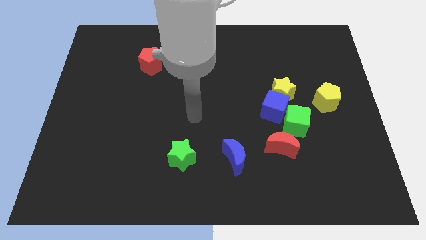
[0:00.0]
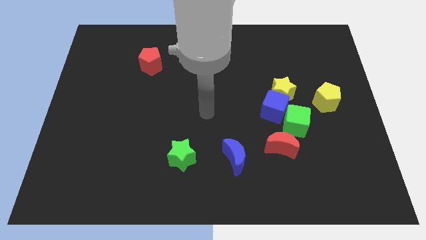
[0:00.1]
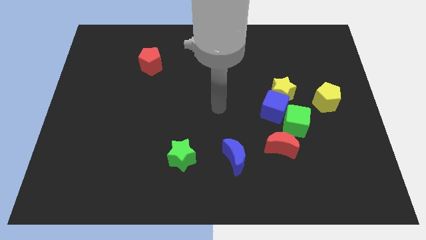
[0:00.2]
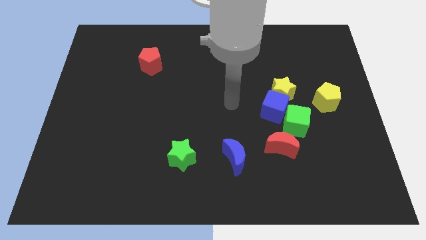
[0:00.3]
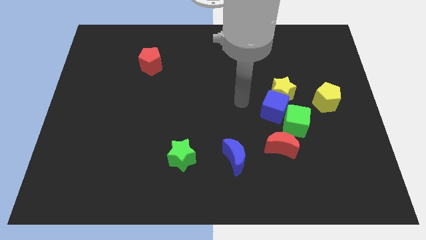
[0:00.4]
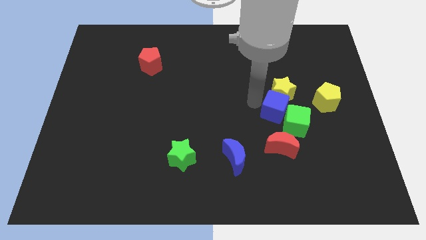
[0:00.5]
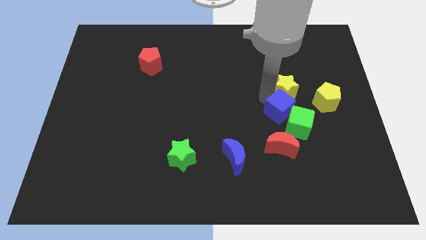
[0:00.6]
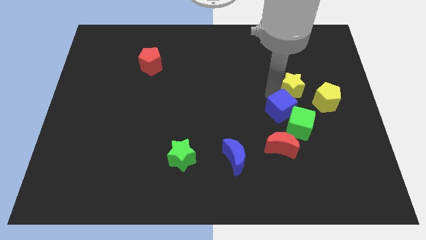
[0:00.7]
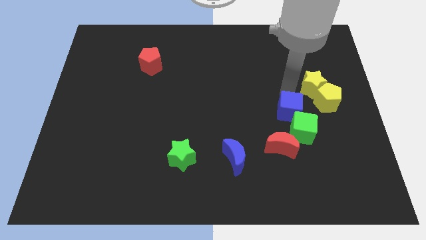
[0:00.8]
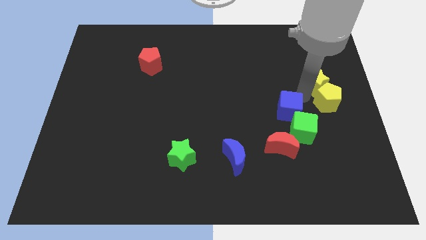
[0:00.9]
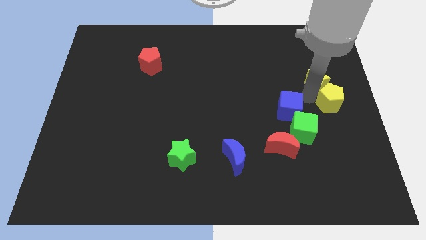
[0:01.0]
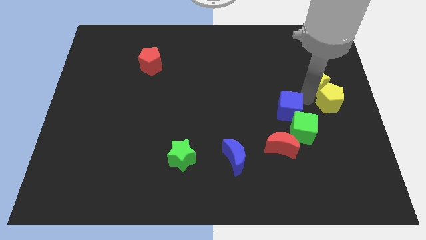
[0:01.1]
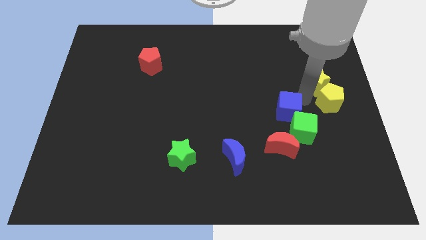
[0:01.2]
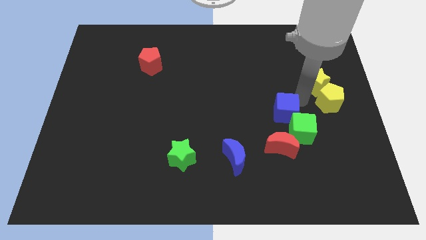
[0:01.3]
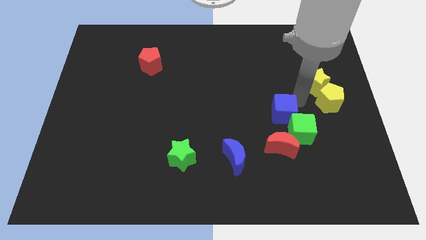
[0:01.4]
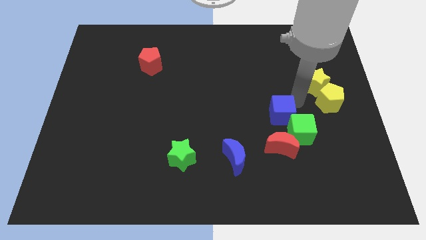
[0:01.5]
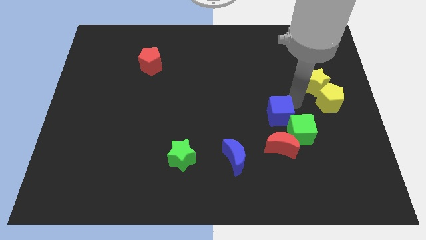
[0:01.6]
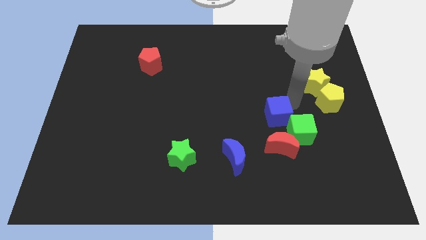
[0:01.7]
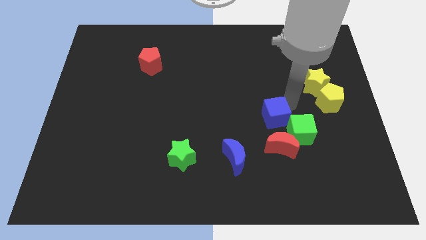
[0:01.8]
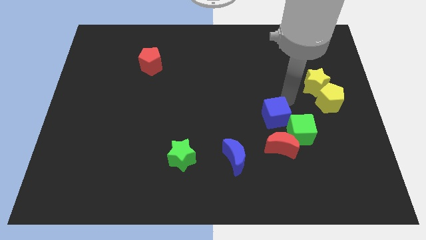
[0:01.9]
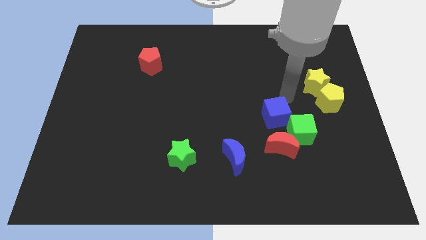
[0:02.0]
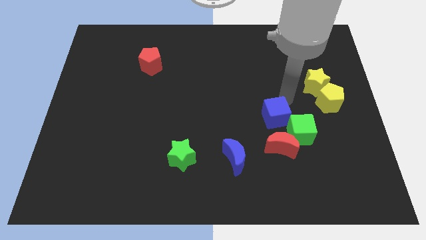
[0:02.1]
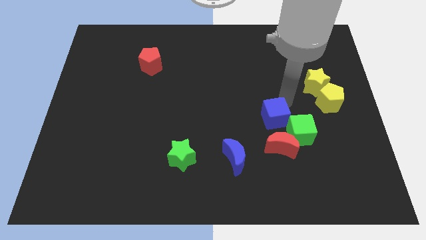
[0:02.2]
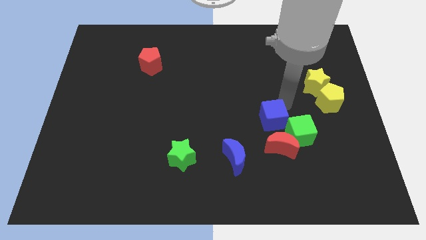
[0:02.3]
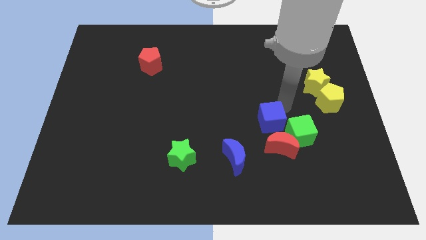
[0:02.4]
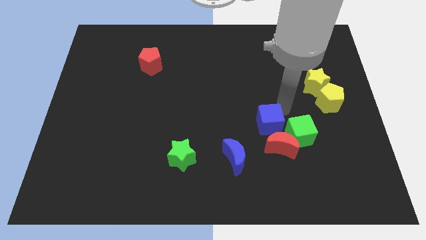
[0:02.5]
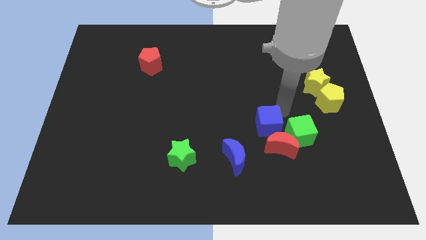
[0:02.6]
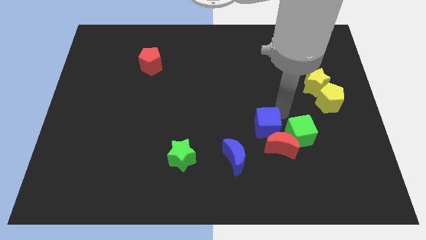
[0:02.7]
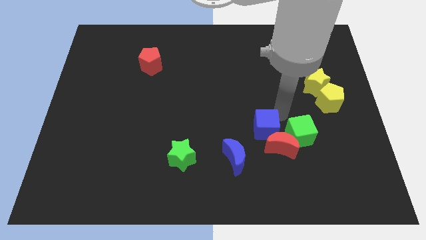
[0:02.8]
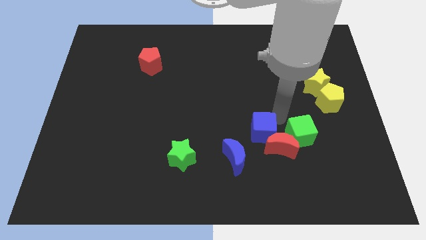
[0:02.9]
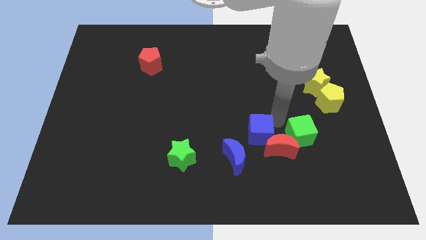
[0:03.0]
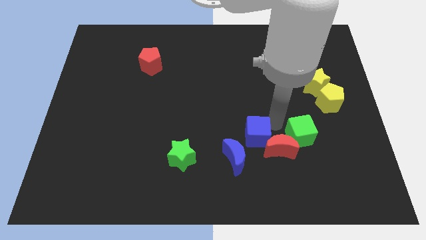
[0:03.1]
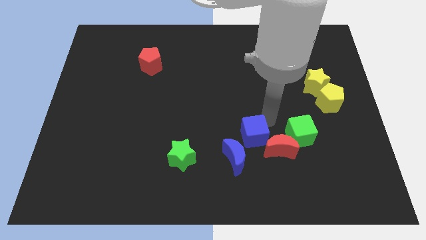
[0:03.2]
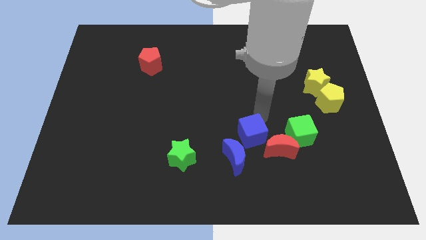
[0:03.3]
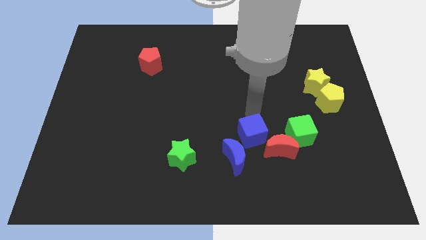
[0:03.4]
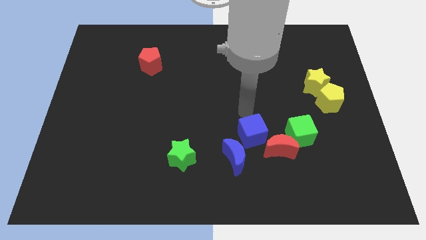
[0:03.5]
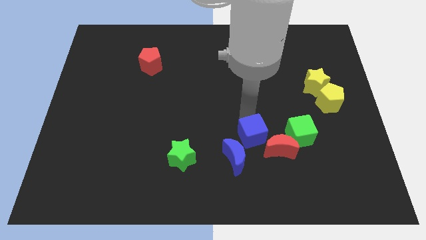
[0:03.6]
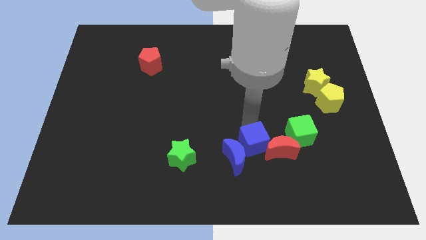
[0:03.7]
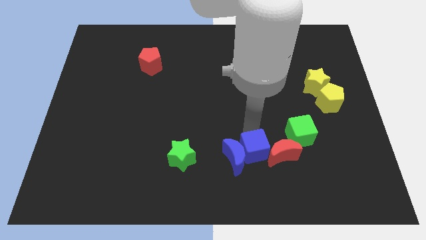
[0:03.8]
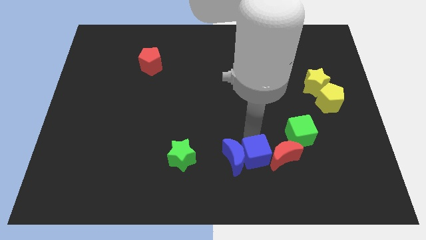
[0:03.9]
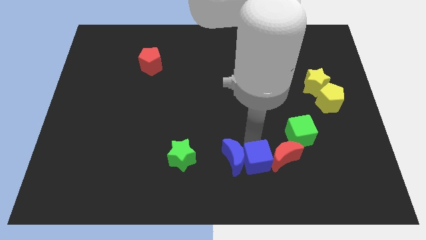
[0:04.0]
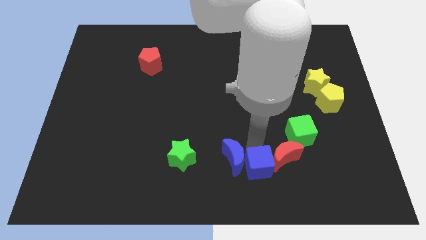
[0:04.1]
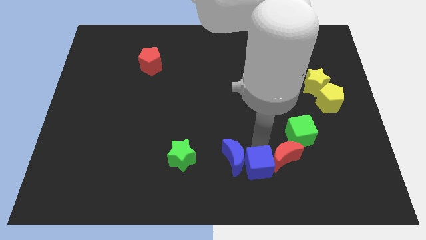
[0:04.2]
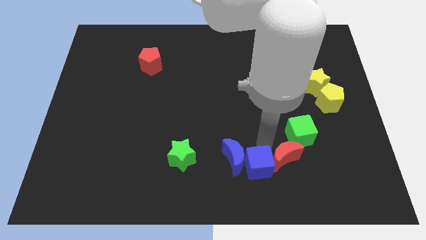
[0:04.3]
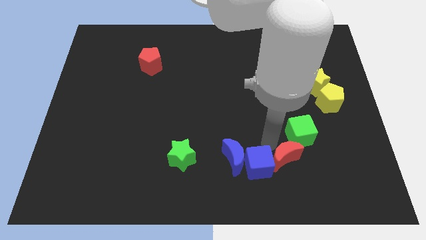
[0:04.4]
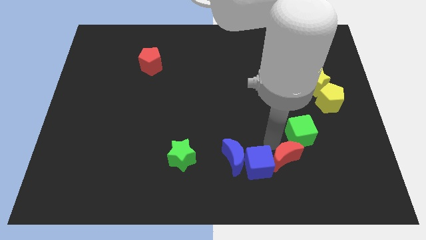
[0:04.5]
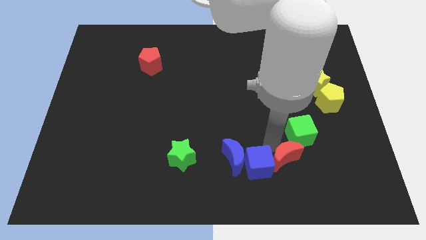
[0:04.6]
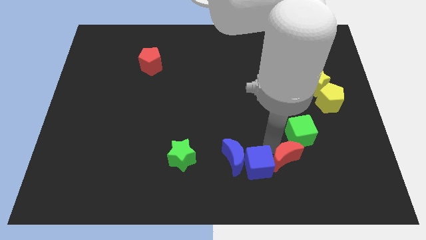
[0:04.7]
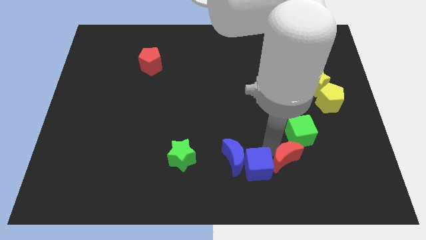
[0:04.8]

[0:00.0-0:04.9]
move the blue cube to the bottom side
